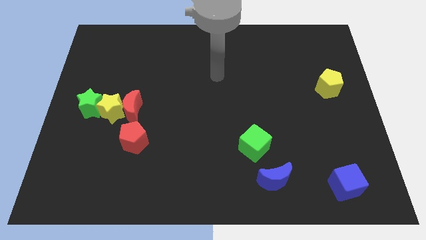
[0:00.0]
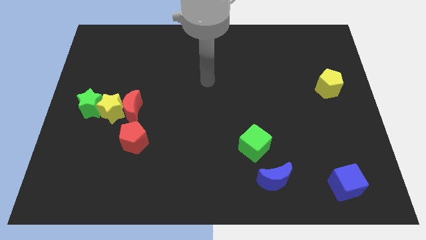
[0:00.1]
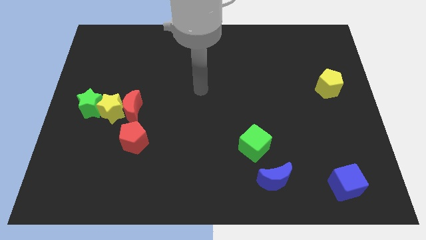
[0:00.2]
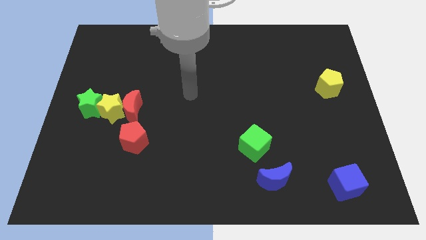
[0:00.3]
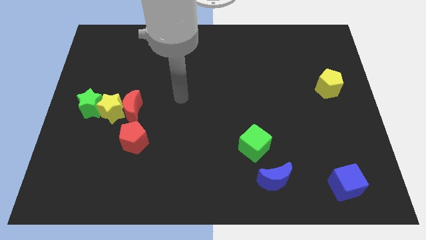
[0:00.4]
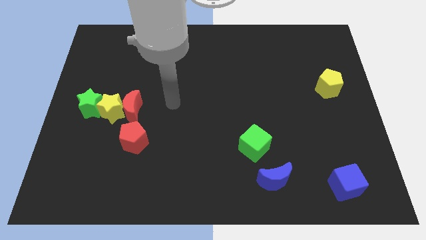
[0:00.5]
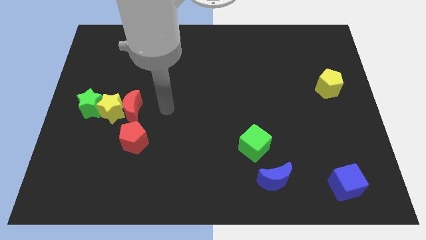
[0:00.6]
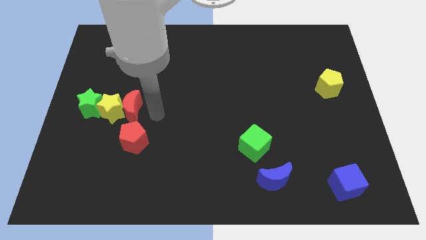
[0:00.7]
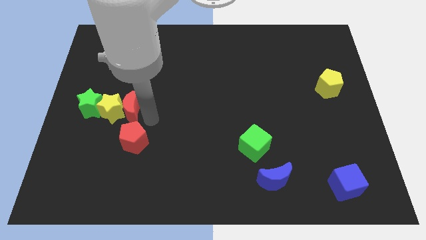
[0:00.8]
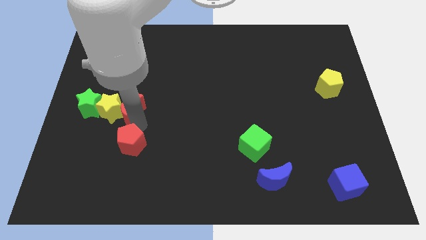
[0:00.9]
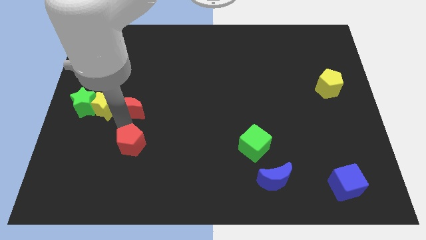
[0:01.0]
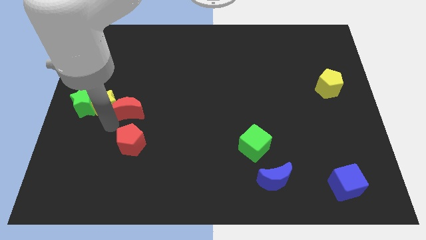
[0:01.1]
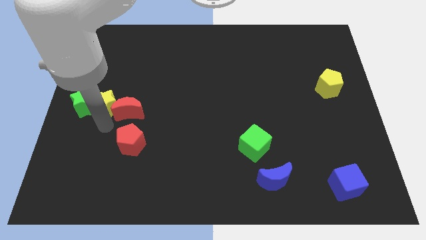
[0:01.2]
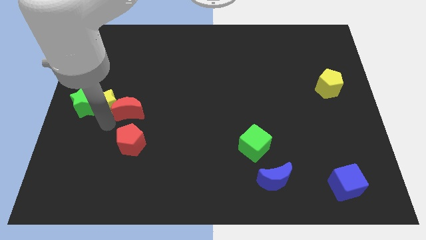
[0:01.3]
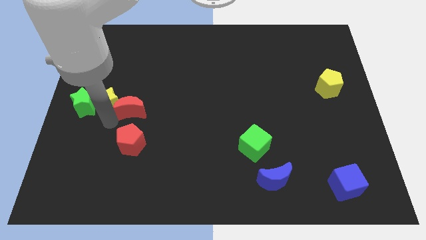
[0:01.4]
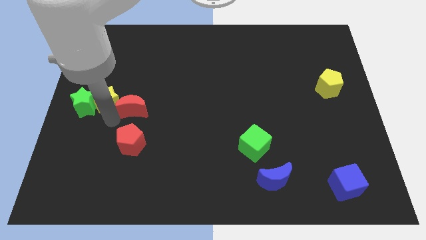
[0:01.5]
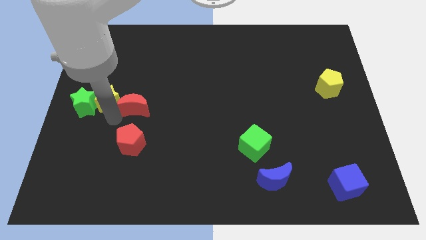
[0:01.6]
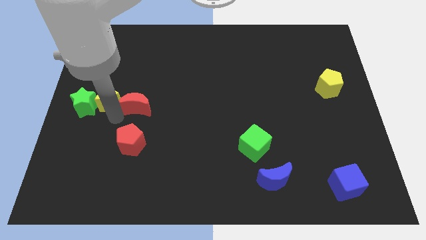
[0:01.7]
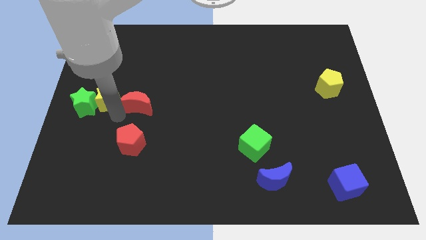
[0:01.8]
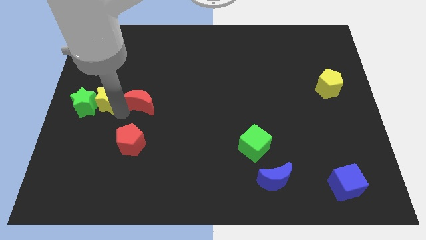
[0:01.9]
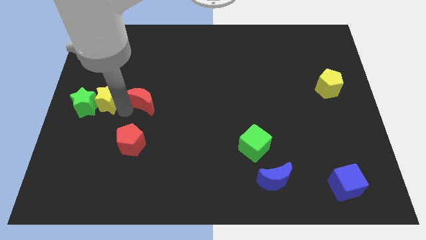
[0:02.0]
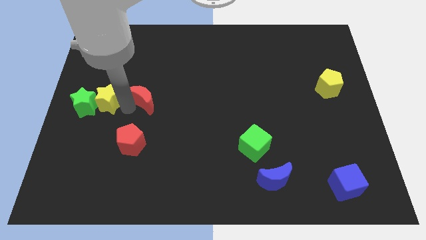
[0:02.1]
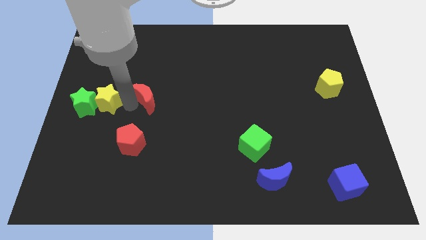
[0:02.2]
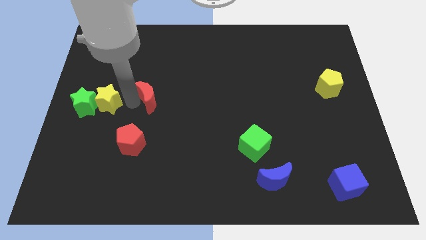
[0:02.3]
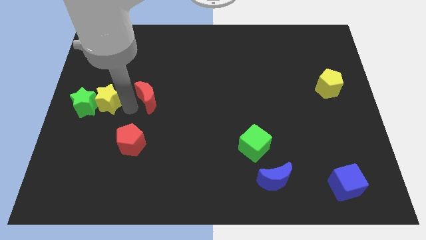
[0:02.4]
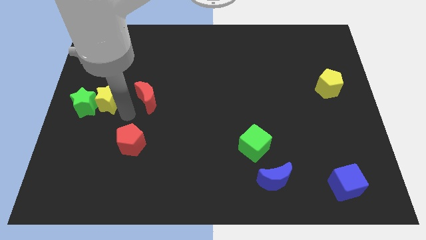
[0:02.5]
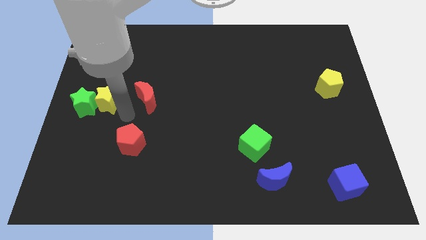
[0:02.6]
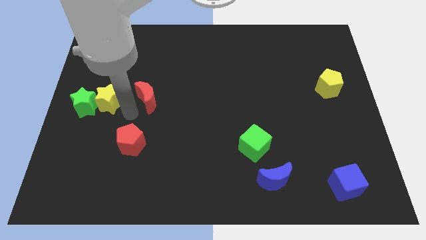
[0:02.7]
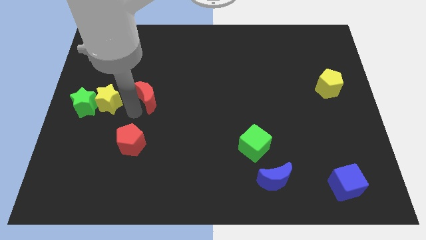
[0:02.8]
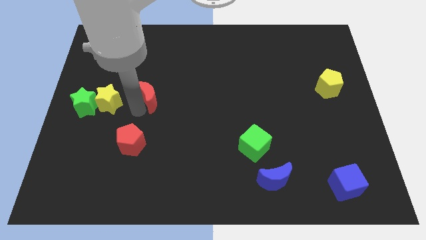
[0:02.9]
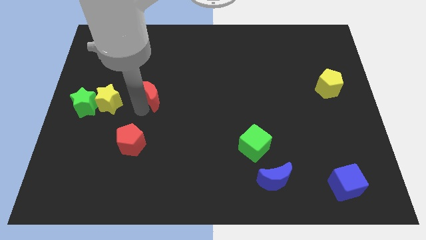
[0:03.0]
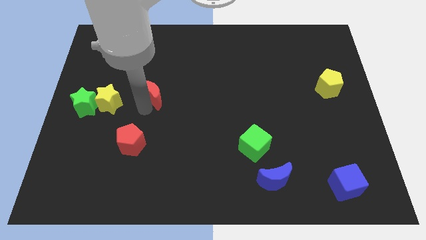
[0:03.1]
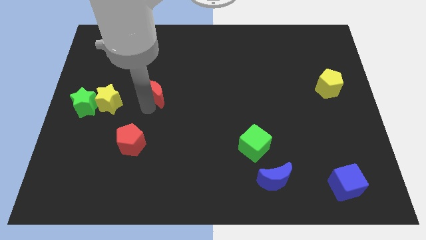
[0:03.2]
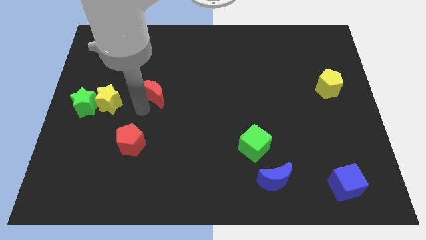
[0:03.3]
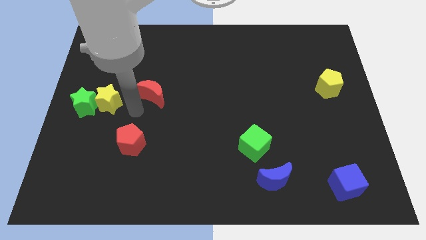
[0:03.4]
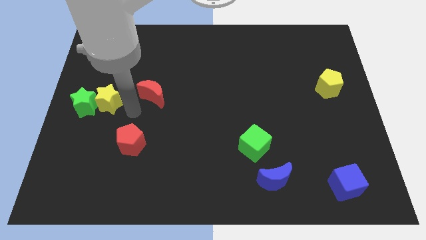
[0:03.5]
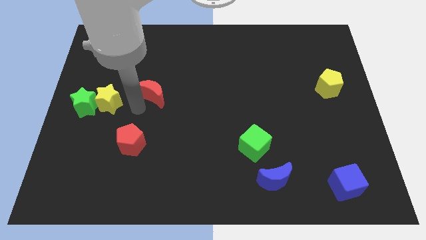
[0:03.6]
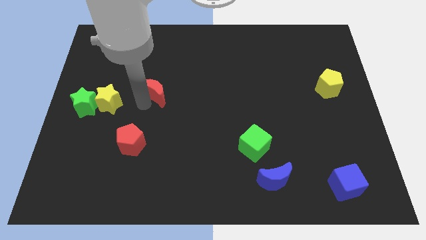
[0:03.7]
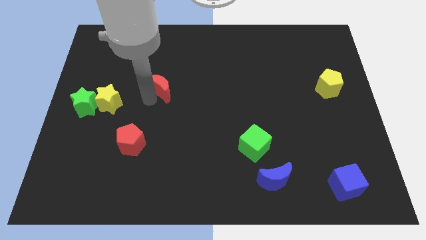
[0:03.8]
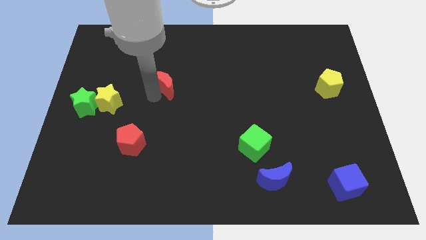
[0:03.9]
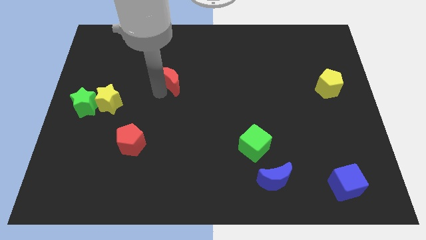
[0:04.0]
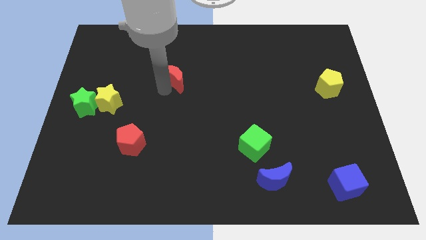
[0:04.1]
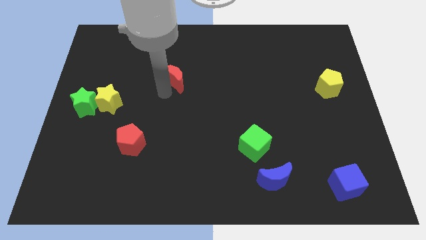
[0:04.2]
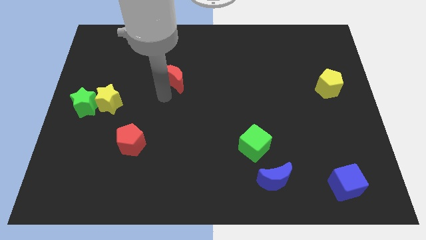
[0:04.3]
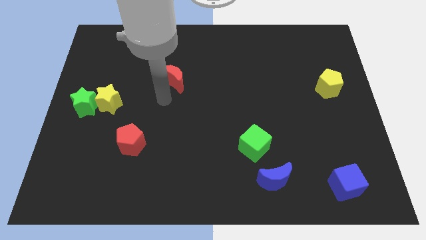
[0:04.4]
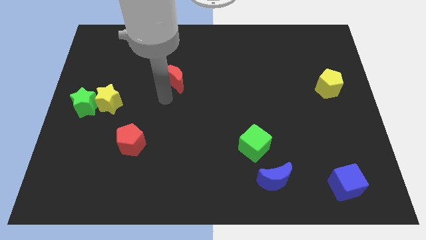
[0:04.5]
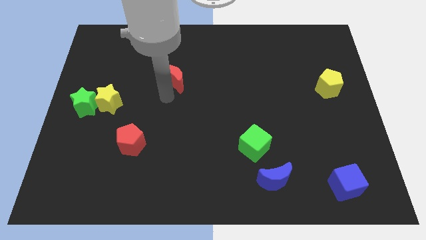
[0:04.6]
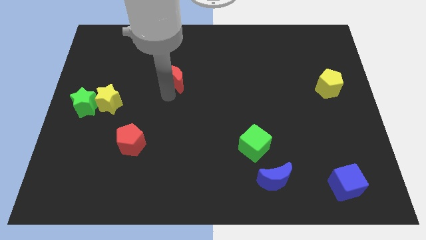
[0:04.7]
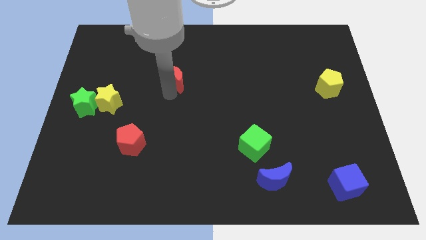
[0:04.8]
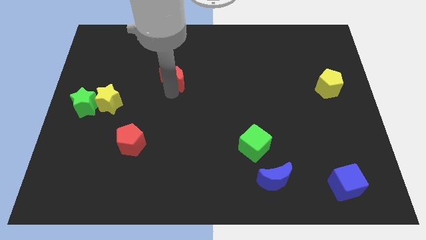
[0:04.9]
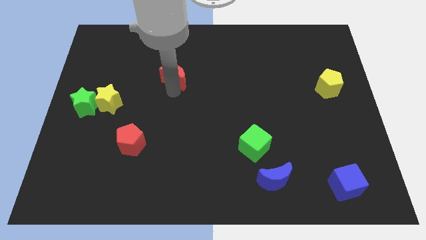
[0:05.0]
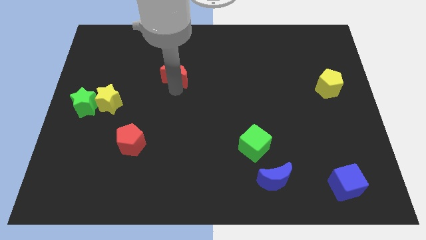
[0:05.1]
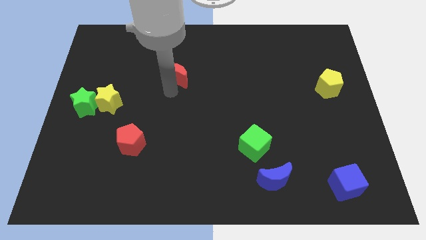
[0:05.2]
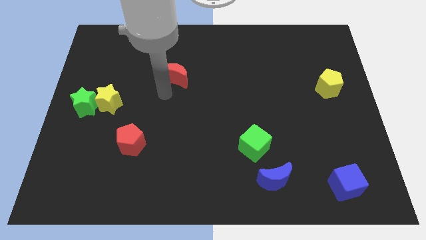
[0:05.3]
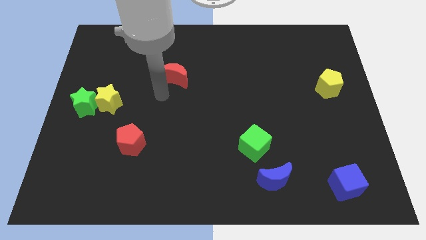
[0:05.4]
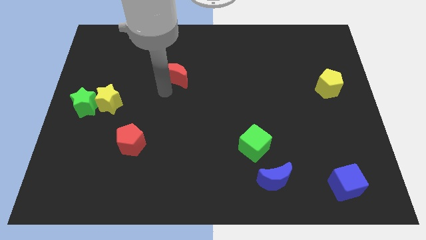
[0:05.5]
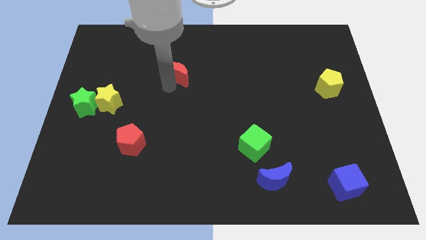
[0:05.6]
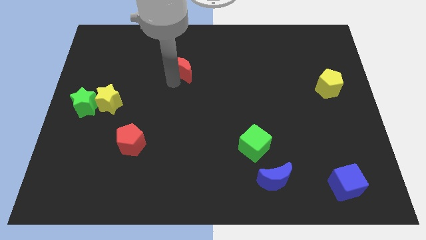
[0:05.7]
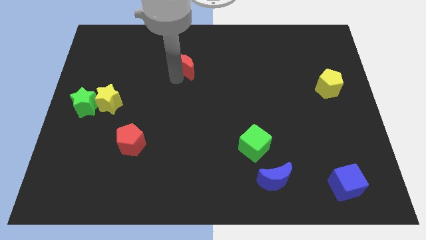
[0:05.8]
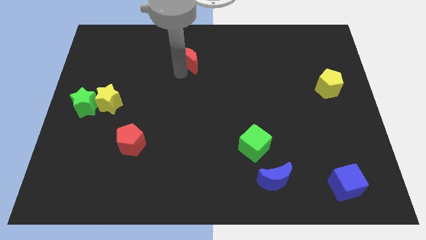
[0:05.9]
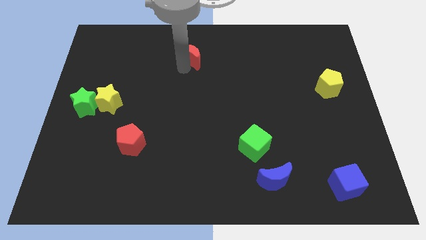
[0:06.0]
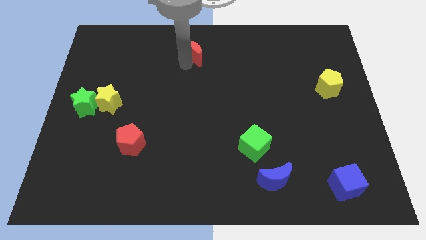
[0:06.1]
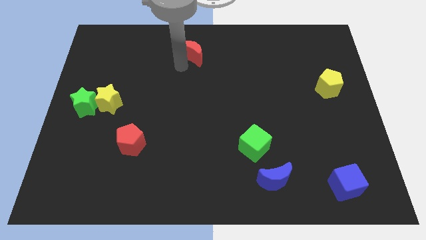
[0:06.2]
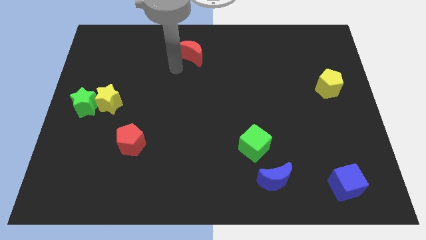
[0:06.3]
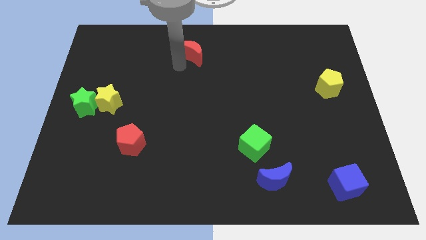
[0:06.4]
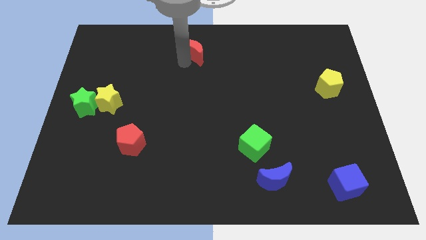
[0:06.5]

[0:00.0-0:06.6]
move the red moon to the top
